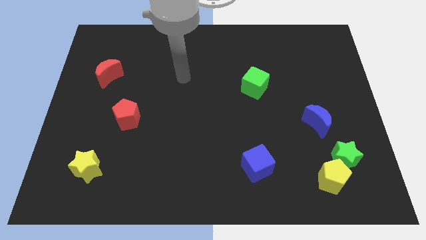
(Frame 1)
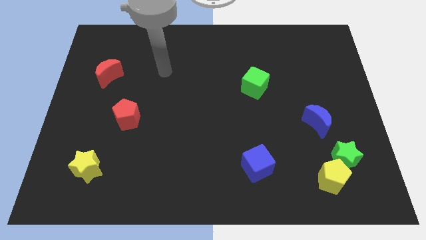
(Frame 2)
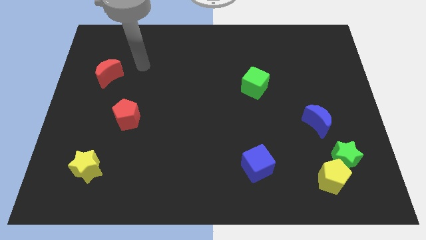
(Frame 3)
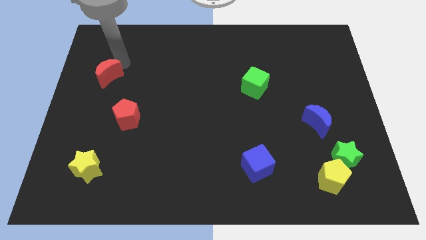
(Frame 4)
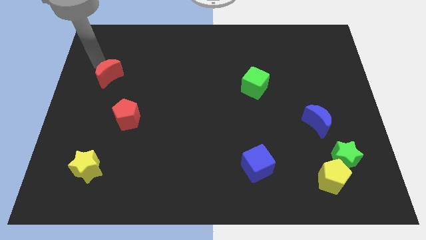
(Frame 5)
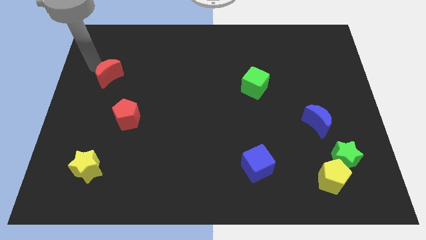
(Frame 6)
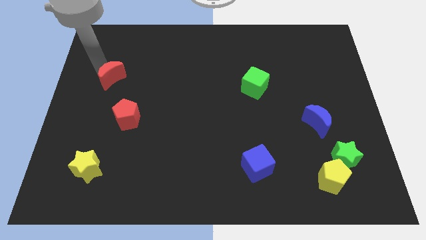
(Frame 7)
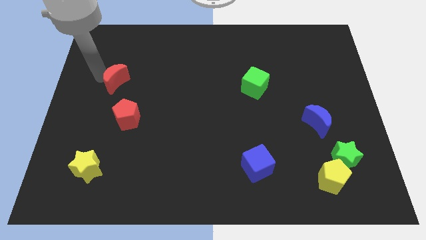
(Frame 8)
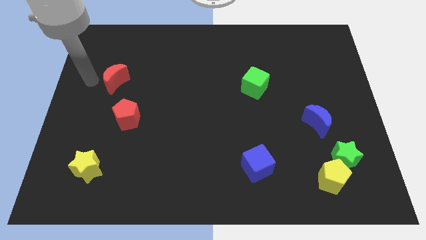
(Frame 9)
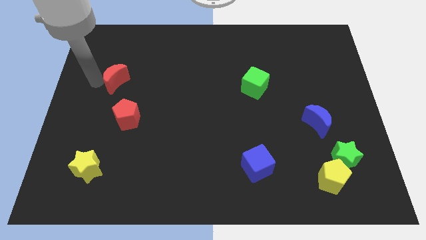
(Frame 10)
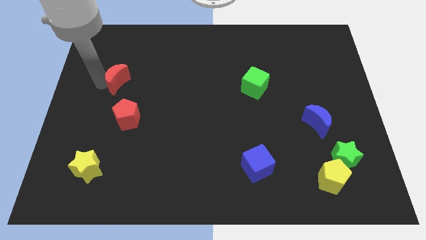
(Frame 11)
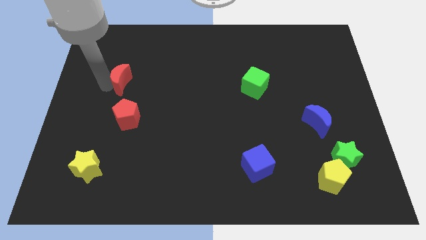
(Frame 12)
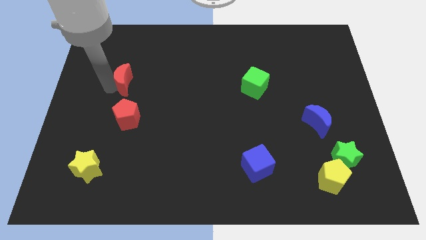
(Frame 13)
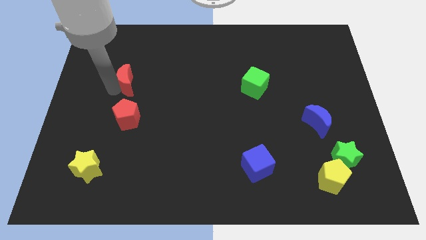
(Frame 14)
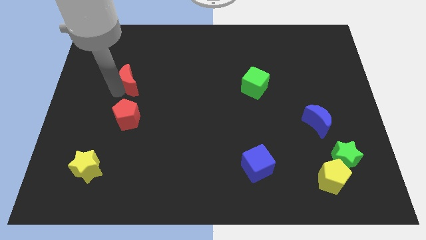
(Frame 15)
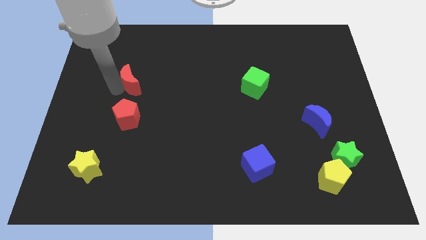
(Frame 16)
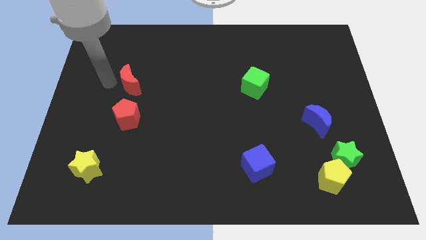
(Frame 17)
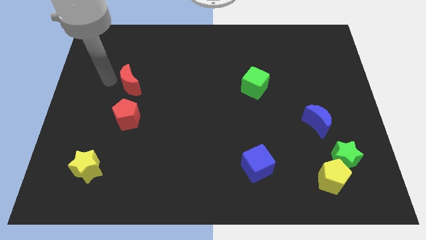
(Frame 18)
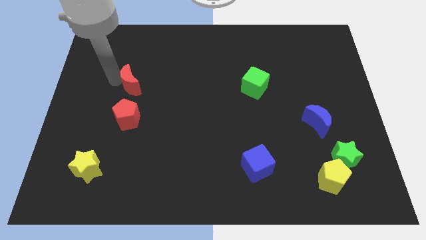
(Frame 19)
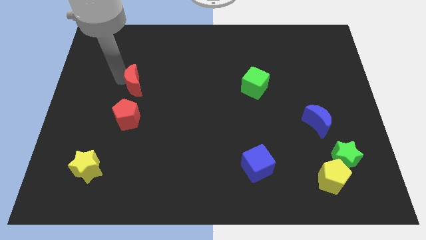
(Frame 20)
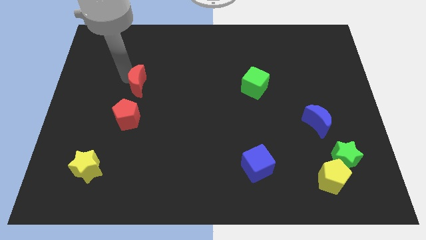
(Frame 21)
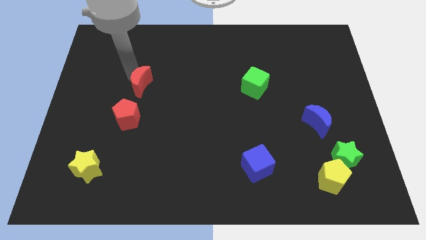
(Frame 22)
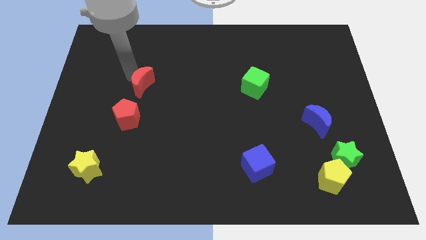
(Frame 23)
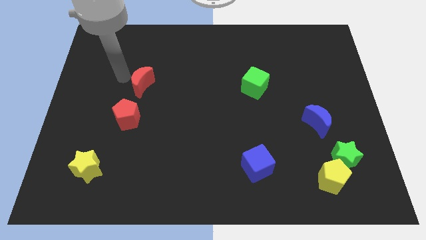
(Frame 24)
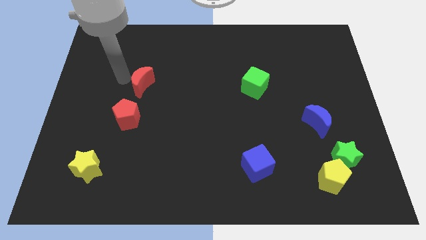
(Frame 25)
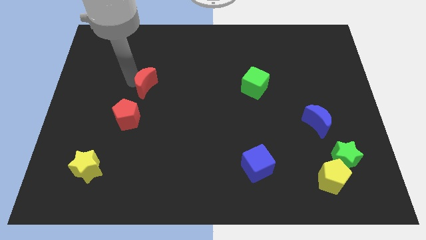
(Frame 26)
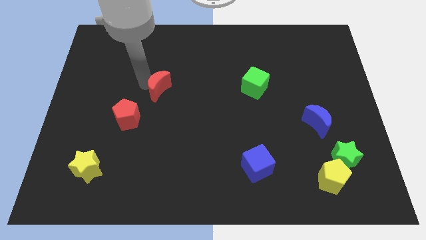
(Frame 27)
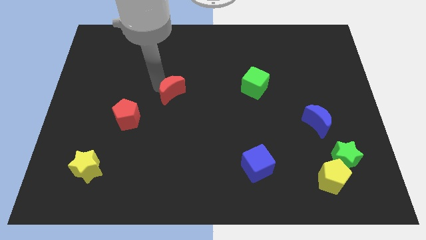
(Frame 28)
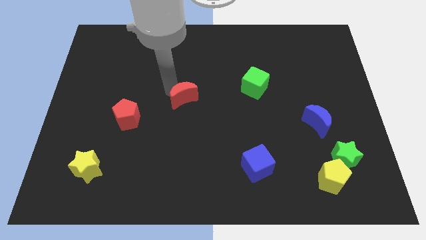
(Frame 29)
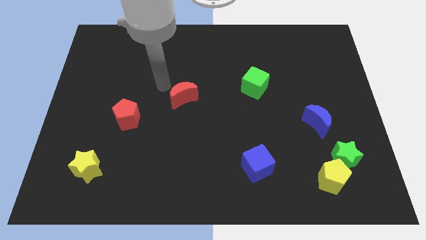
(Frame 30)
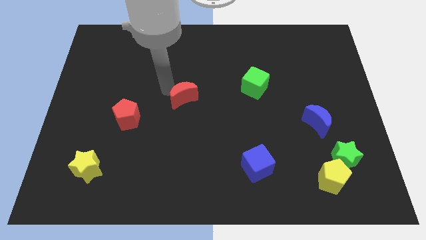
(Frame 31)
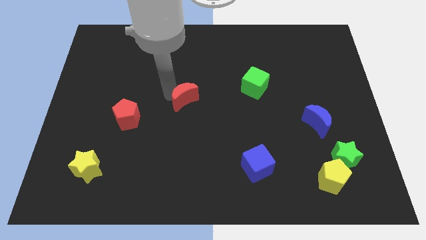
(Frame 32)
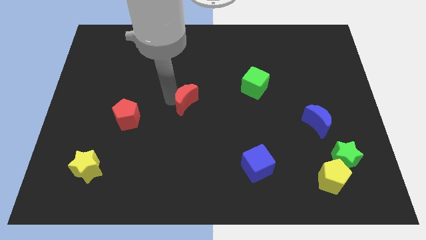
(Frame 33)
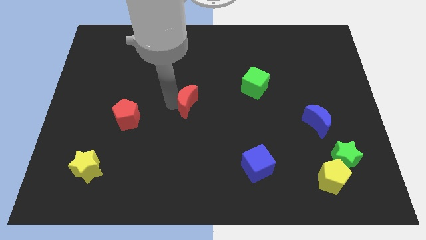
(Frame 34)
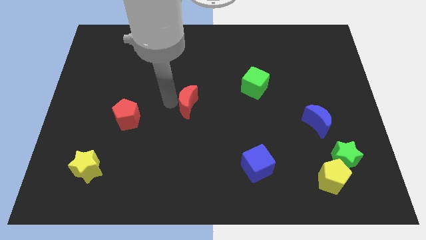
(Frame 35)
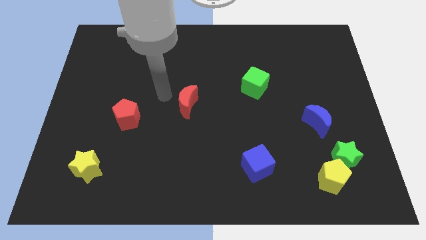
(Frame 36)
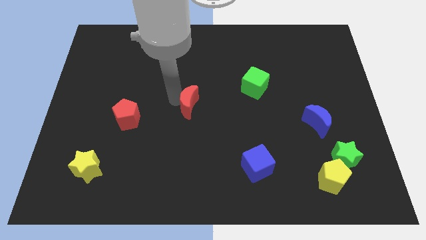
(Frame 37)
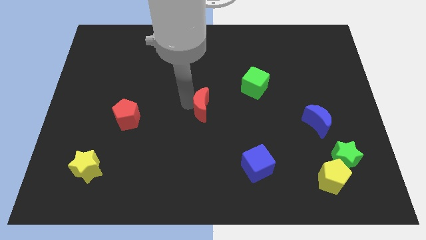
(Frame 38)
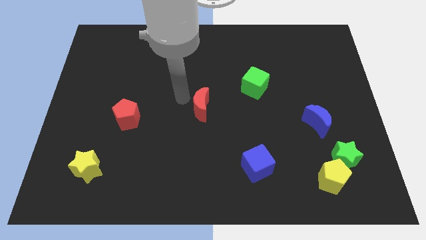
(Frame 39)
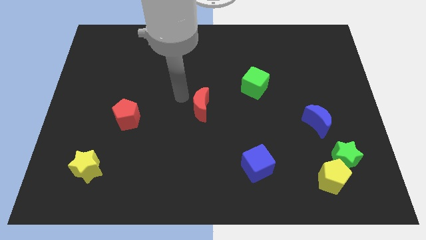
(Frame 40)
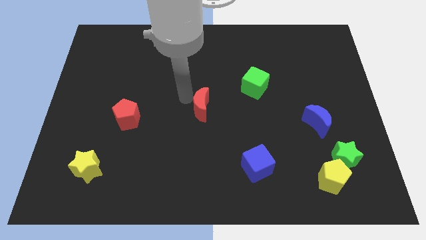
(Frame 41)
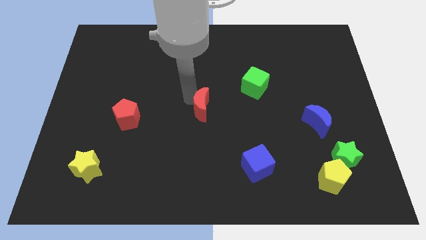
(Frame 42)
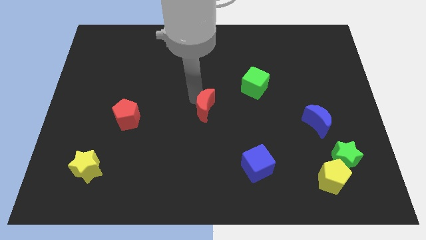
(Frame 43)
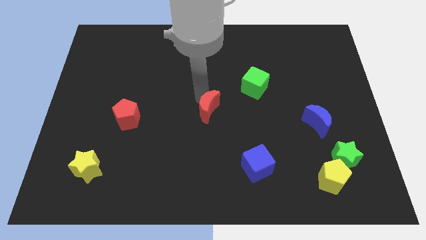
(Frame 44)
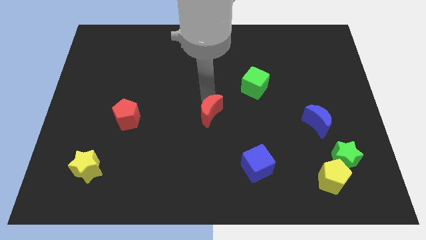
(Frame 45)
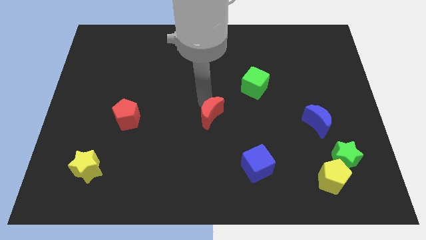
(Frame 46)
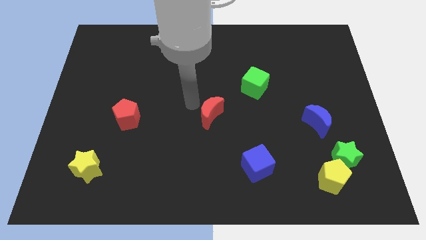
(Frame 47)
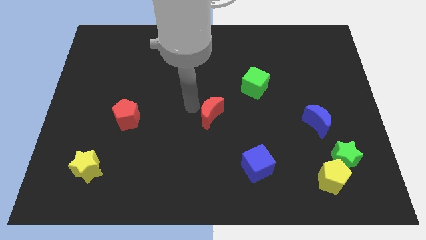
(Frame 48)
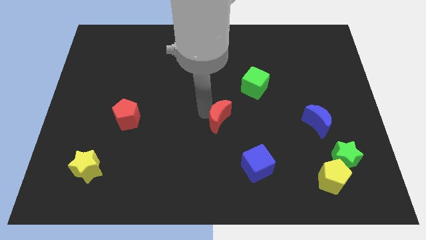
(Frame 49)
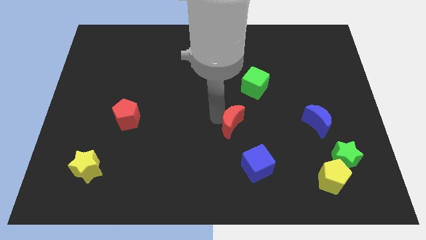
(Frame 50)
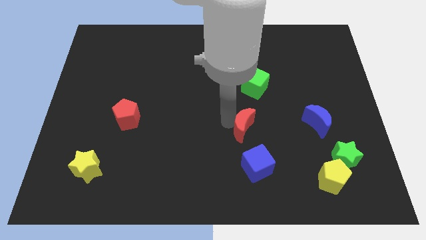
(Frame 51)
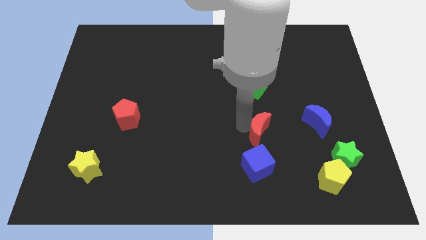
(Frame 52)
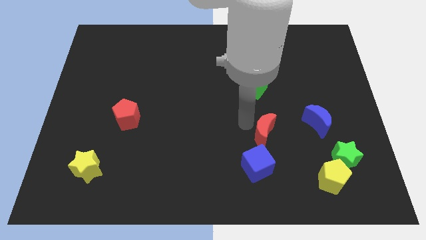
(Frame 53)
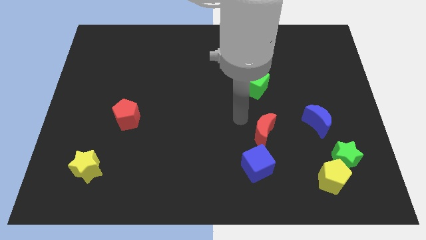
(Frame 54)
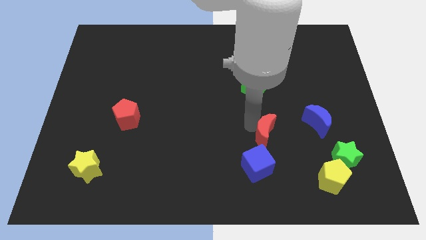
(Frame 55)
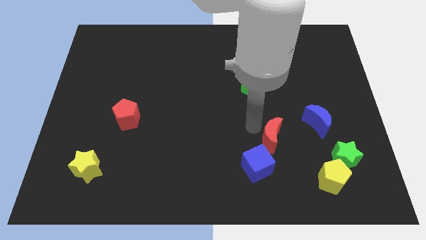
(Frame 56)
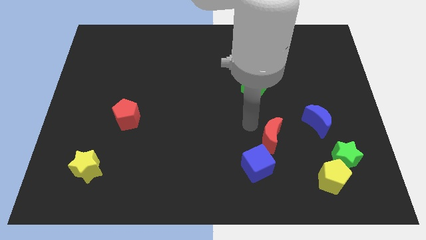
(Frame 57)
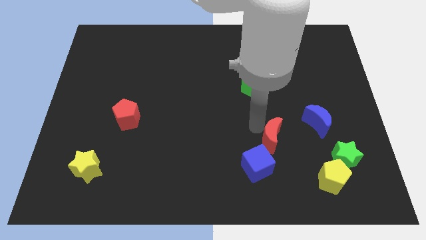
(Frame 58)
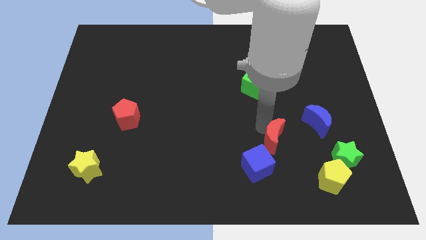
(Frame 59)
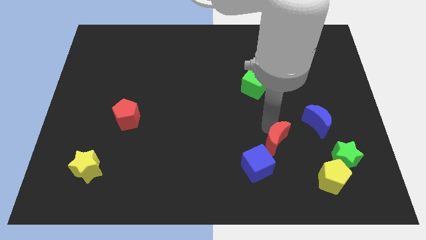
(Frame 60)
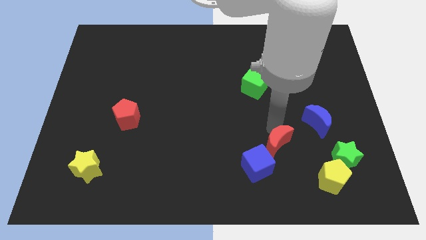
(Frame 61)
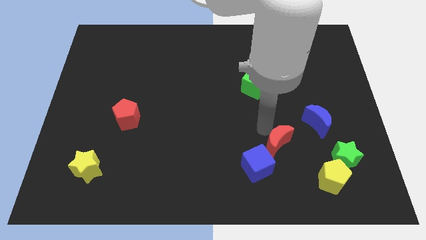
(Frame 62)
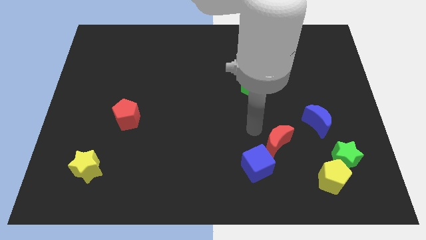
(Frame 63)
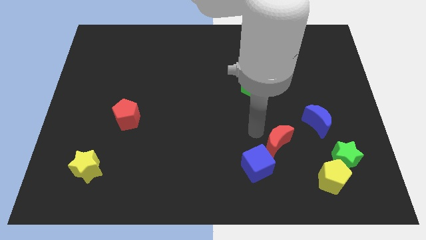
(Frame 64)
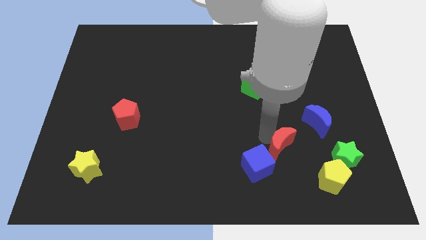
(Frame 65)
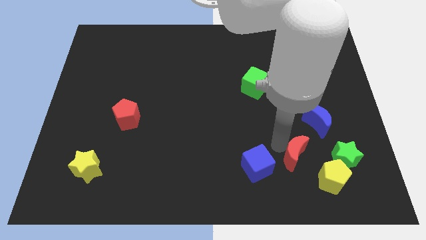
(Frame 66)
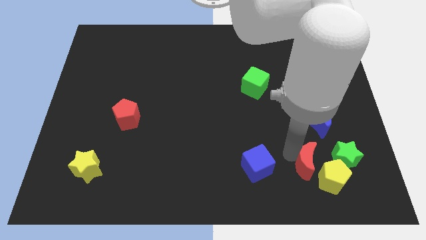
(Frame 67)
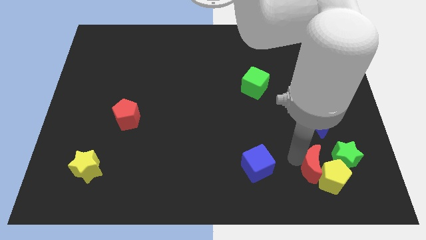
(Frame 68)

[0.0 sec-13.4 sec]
put the red moon next to the yellow pentagon

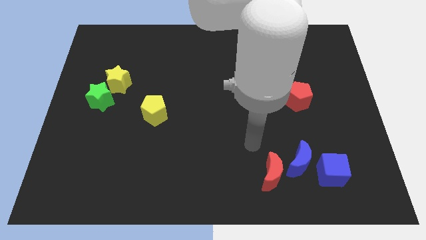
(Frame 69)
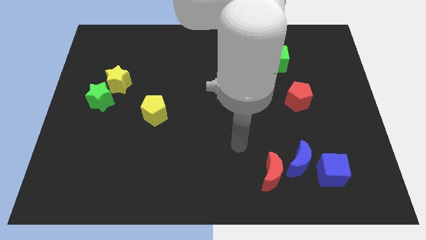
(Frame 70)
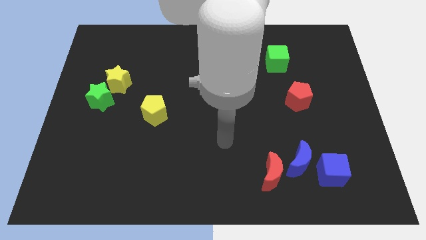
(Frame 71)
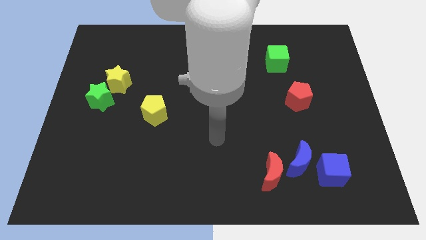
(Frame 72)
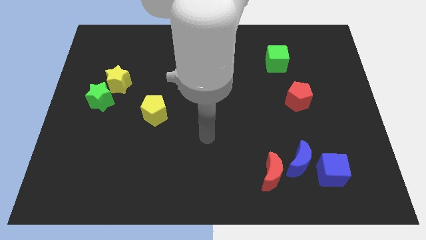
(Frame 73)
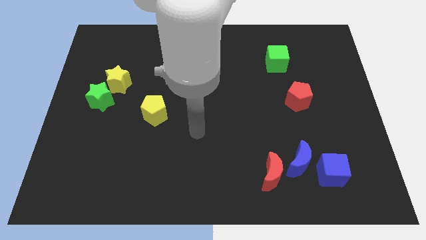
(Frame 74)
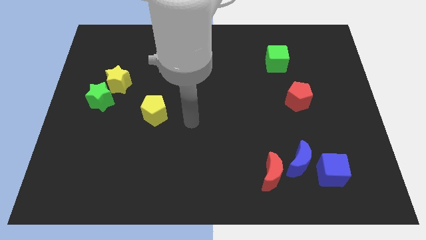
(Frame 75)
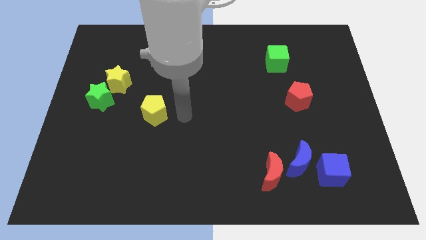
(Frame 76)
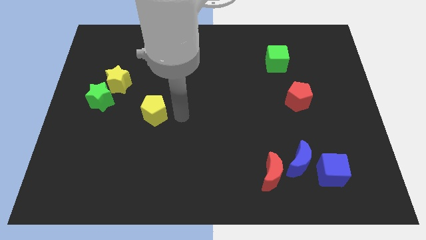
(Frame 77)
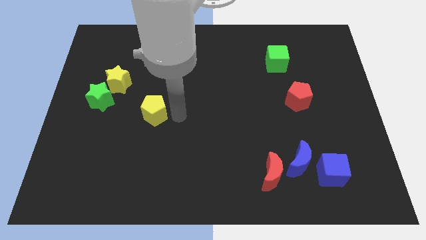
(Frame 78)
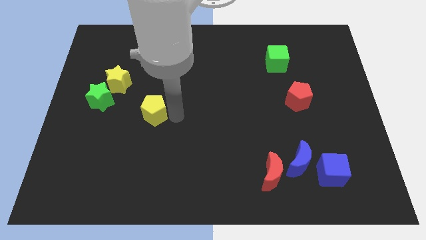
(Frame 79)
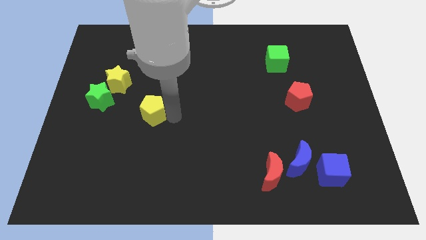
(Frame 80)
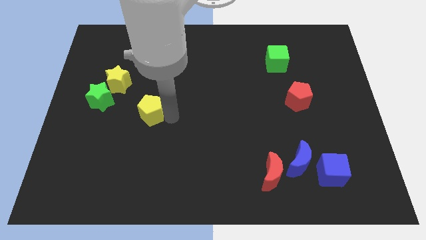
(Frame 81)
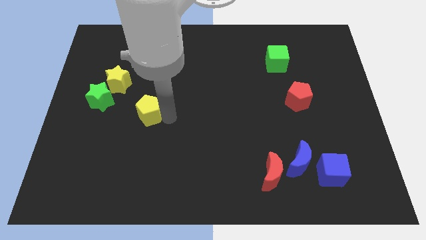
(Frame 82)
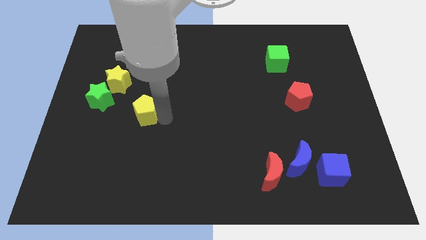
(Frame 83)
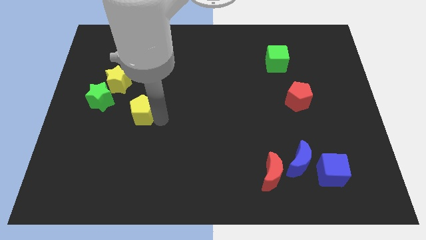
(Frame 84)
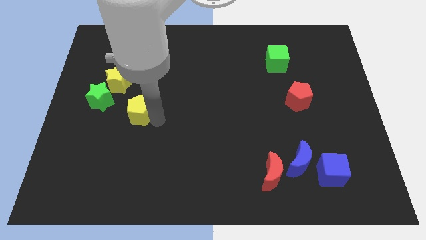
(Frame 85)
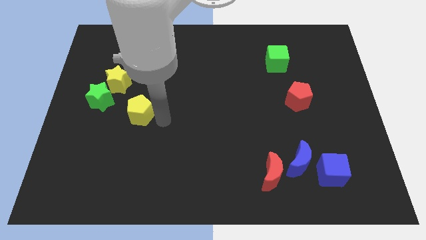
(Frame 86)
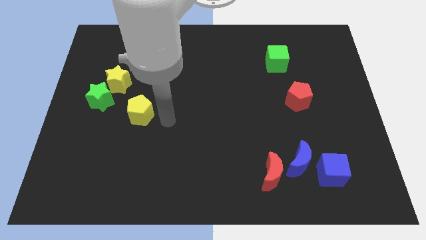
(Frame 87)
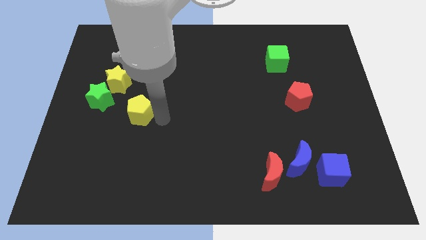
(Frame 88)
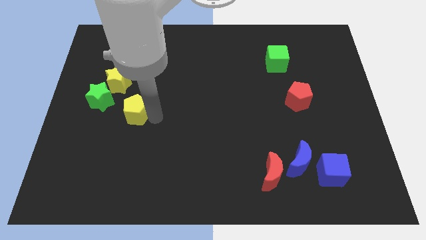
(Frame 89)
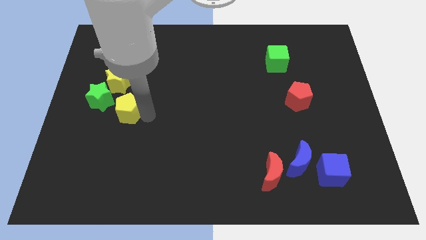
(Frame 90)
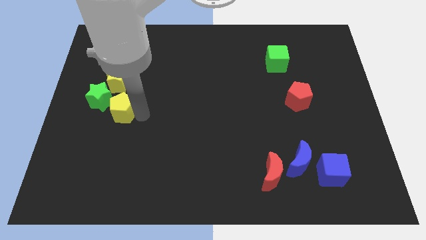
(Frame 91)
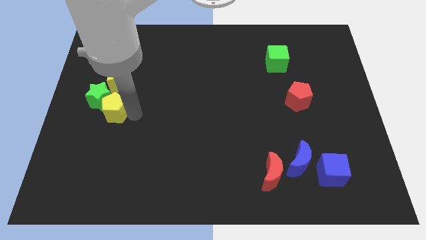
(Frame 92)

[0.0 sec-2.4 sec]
put the yellow pentagon towards the green star
